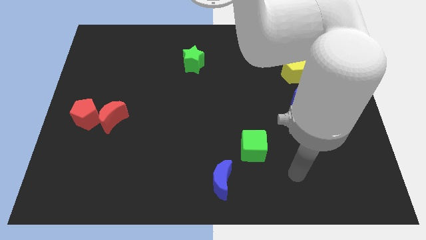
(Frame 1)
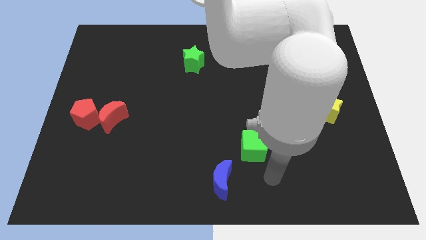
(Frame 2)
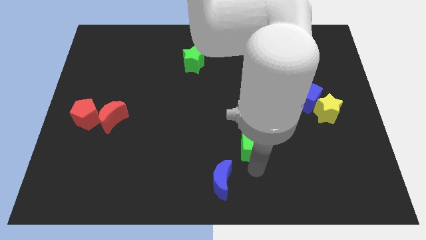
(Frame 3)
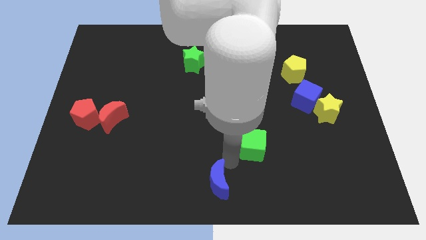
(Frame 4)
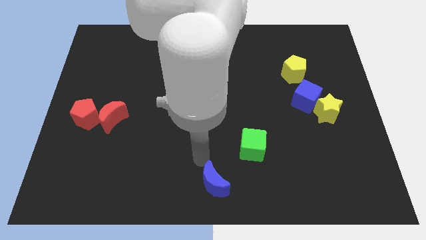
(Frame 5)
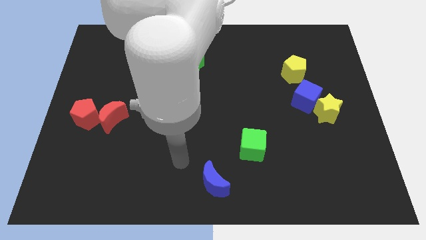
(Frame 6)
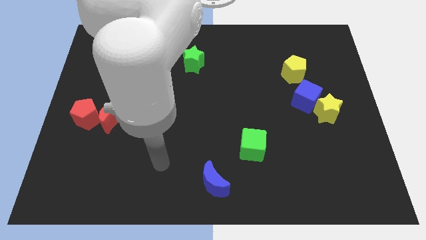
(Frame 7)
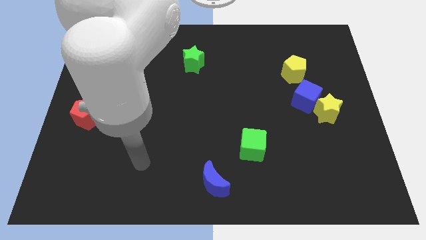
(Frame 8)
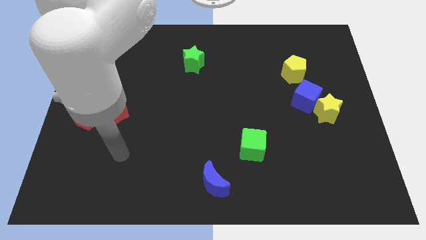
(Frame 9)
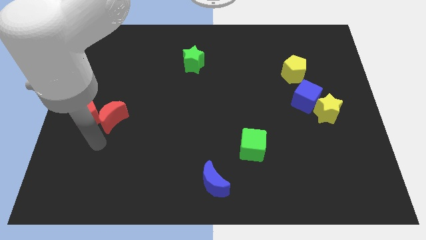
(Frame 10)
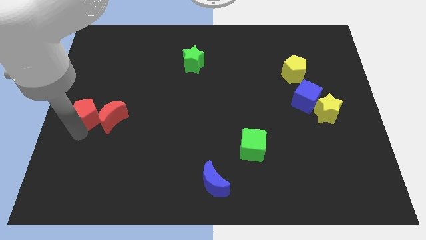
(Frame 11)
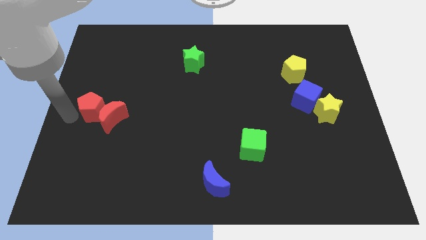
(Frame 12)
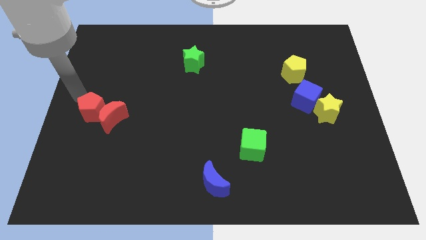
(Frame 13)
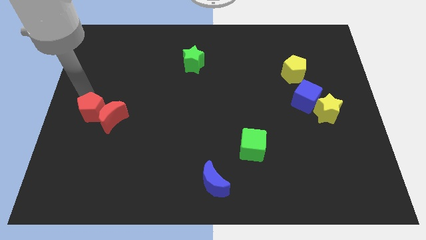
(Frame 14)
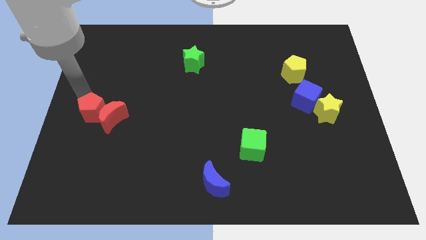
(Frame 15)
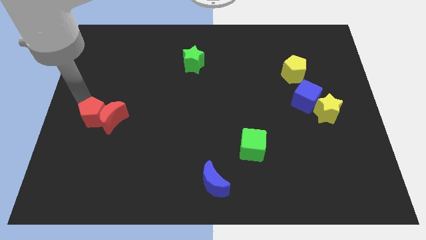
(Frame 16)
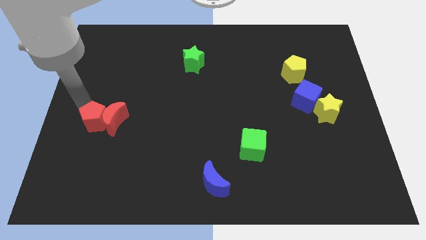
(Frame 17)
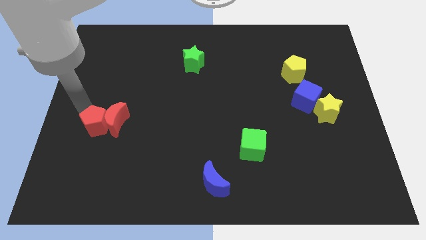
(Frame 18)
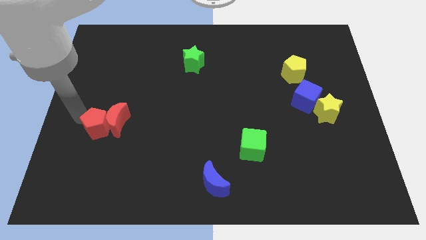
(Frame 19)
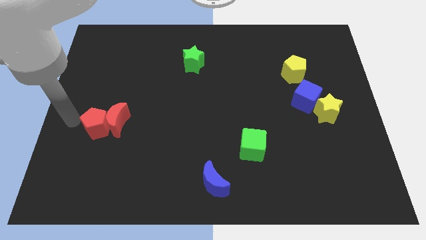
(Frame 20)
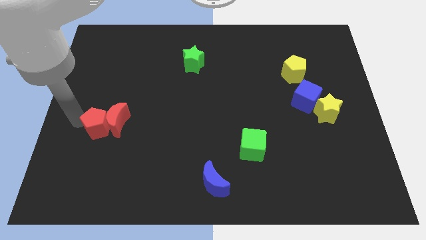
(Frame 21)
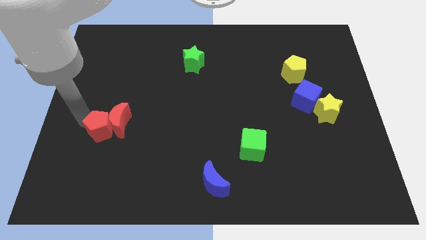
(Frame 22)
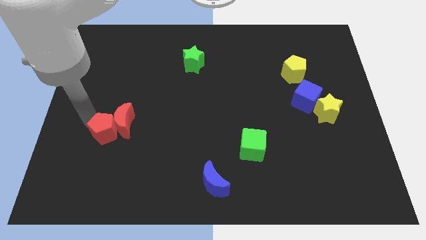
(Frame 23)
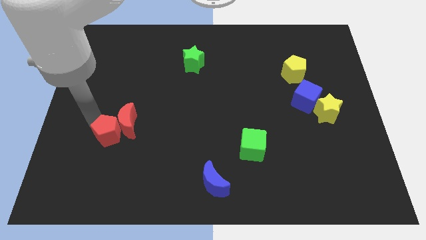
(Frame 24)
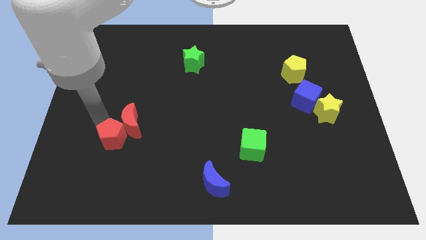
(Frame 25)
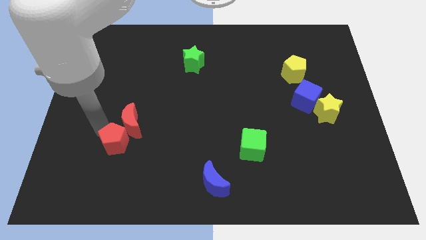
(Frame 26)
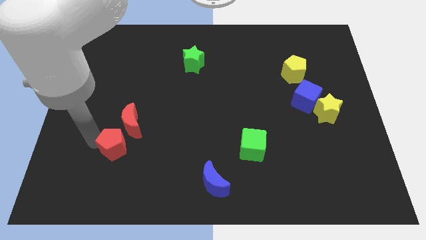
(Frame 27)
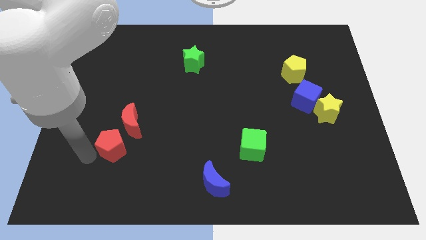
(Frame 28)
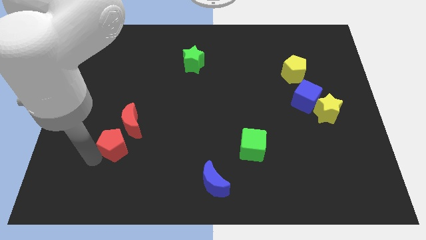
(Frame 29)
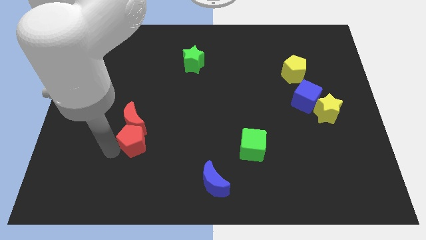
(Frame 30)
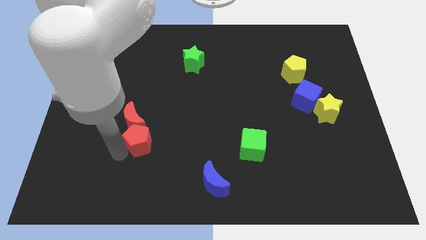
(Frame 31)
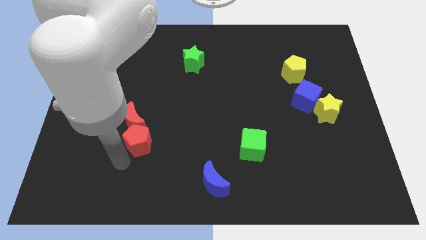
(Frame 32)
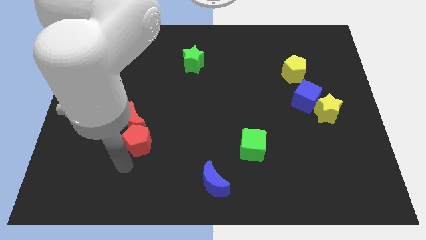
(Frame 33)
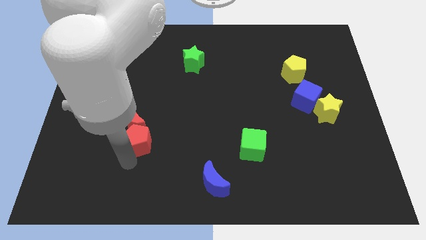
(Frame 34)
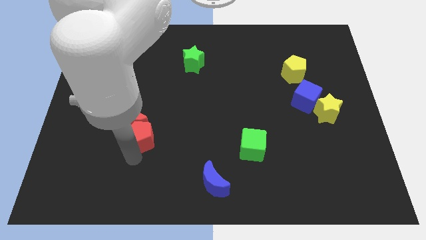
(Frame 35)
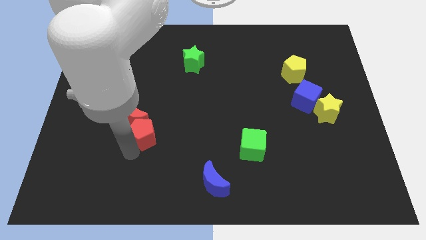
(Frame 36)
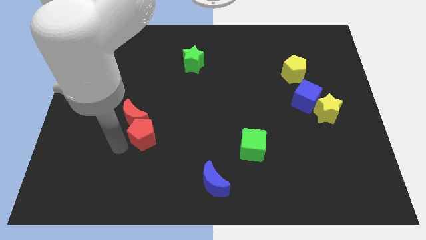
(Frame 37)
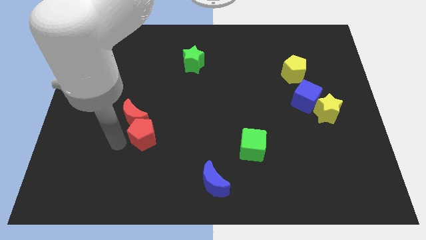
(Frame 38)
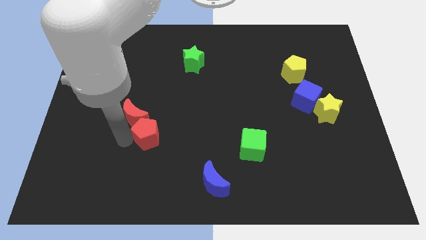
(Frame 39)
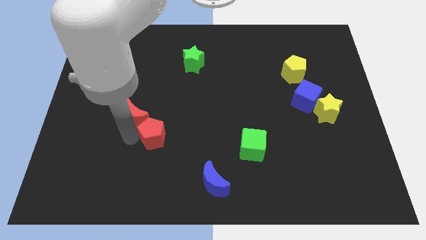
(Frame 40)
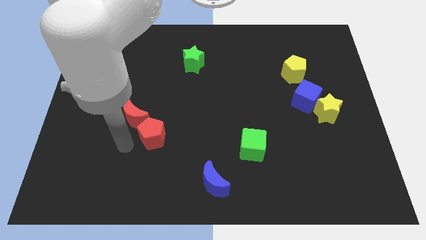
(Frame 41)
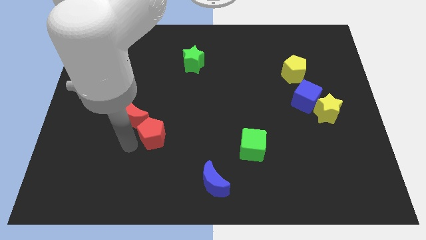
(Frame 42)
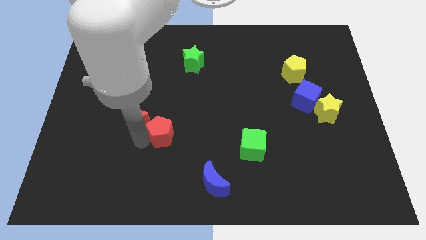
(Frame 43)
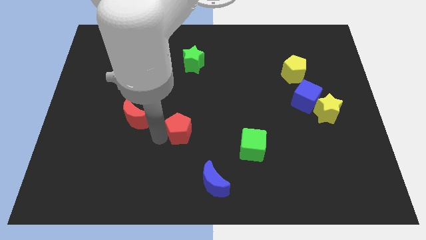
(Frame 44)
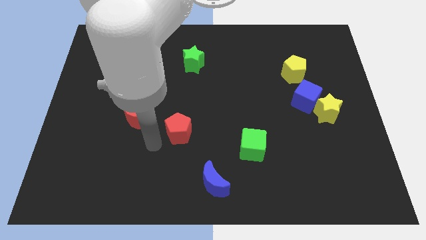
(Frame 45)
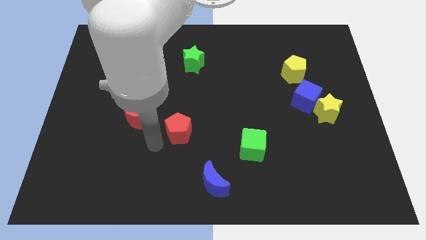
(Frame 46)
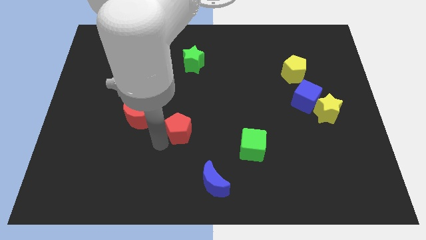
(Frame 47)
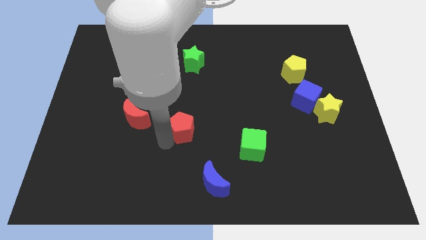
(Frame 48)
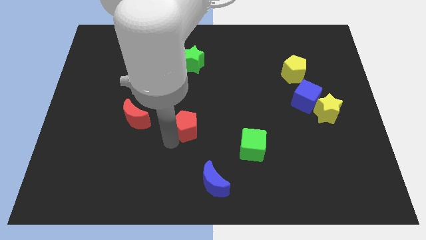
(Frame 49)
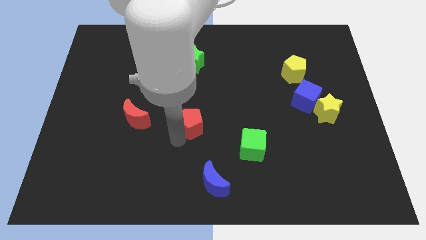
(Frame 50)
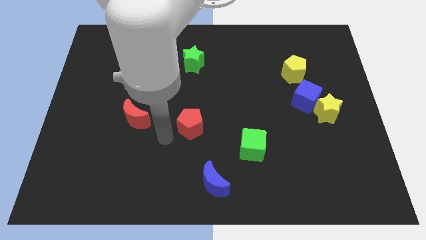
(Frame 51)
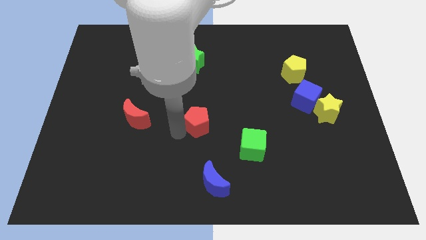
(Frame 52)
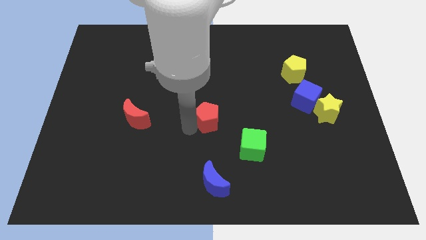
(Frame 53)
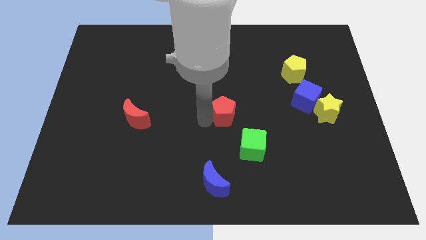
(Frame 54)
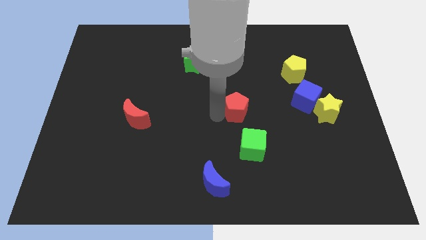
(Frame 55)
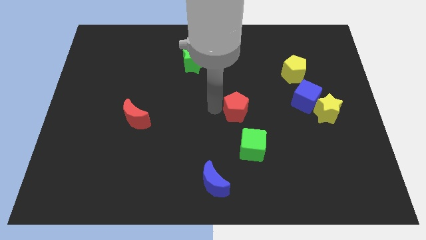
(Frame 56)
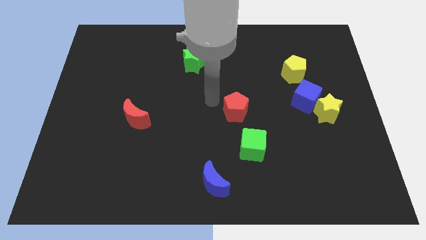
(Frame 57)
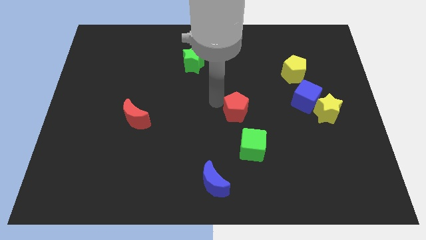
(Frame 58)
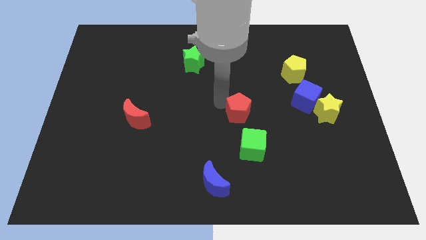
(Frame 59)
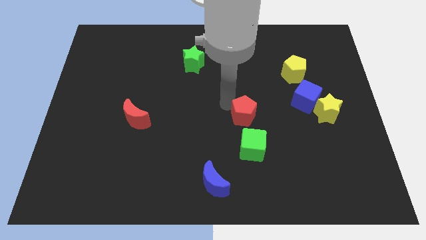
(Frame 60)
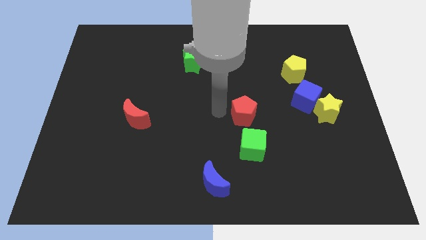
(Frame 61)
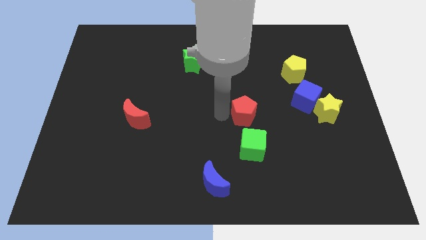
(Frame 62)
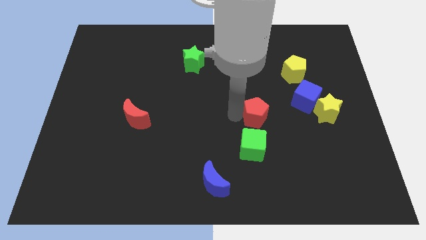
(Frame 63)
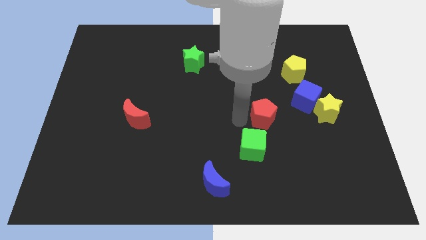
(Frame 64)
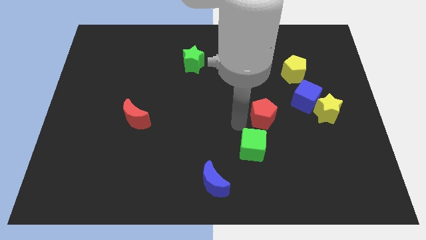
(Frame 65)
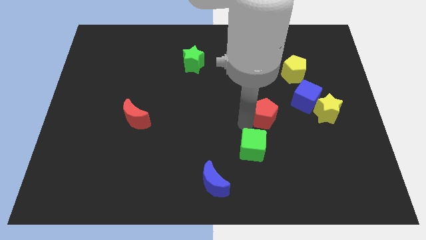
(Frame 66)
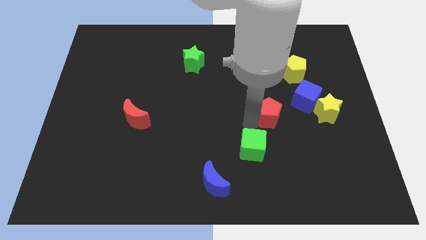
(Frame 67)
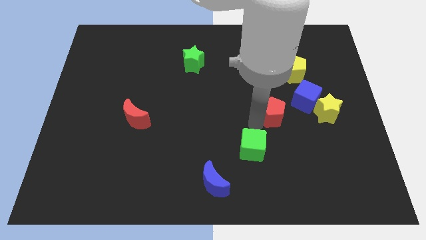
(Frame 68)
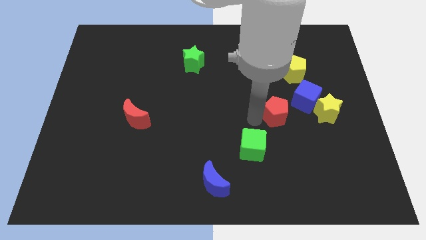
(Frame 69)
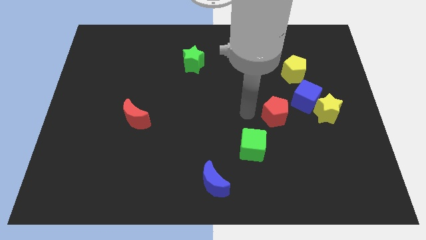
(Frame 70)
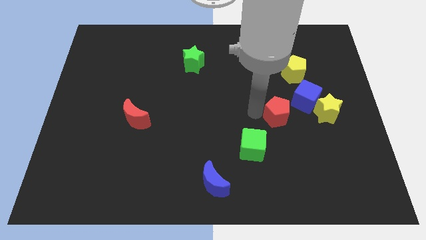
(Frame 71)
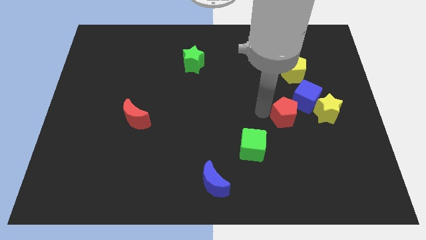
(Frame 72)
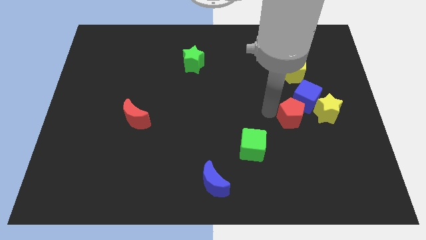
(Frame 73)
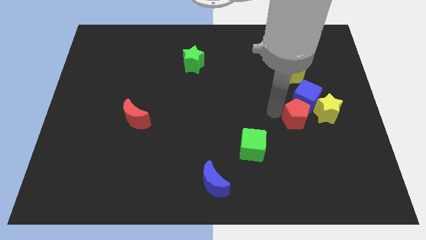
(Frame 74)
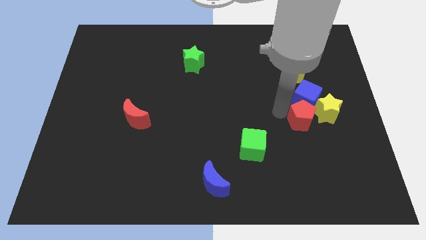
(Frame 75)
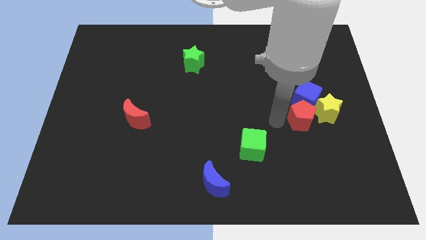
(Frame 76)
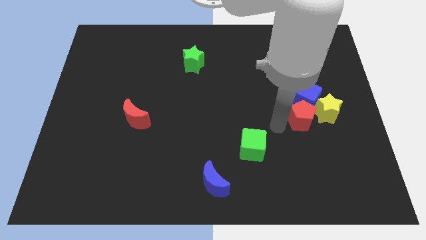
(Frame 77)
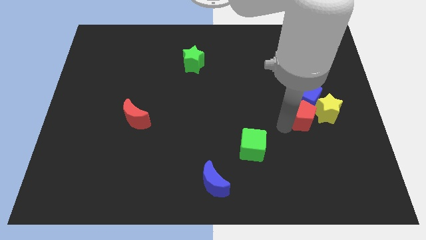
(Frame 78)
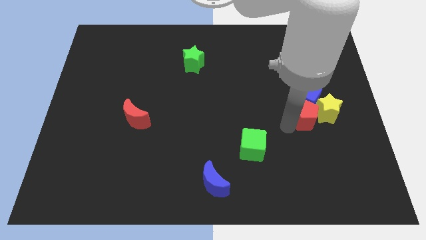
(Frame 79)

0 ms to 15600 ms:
push the red pentagon to the yellow star
